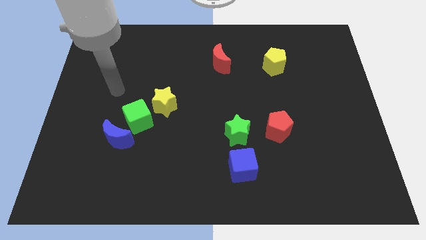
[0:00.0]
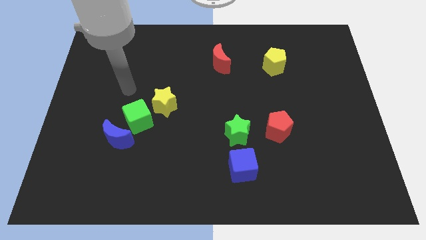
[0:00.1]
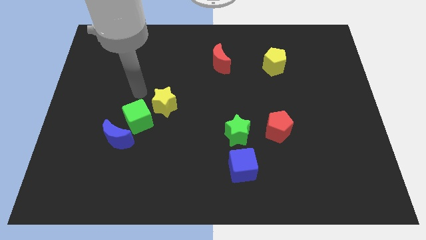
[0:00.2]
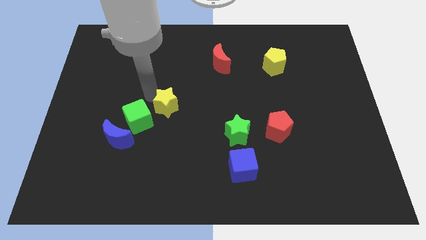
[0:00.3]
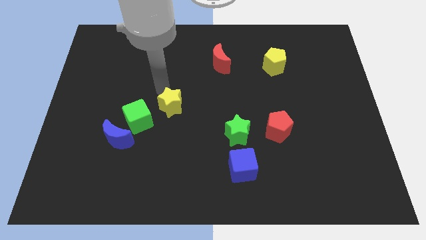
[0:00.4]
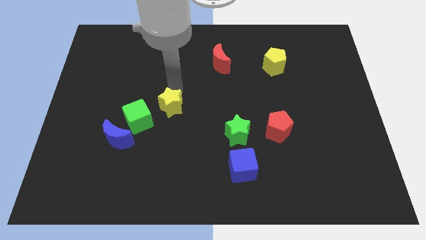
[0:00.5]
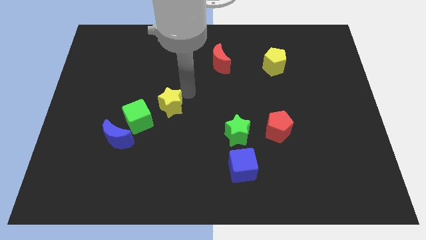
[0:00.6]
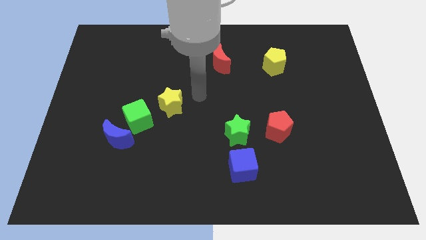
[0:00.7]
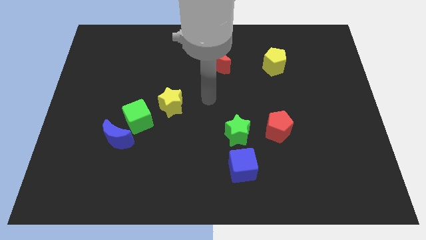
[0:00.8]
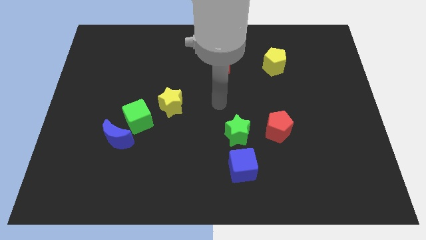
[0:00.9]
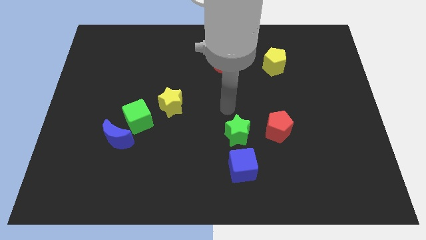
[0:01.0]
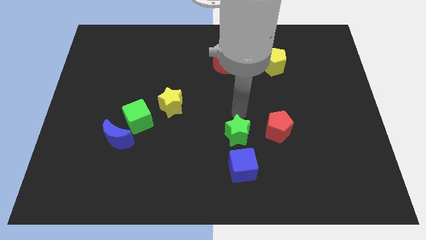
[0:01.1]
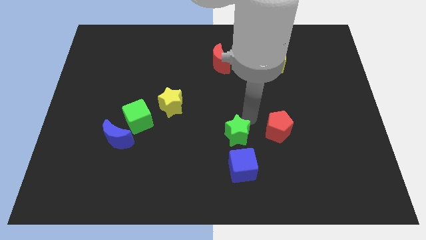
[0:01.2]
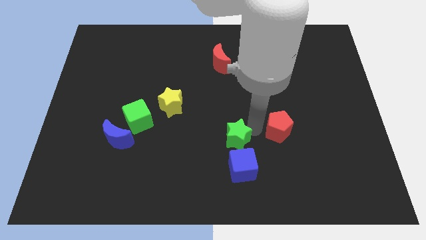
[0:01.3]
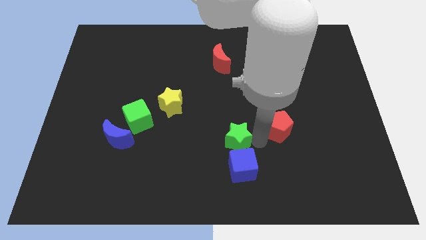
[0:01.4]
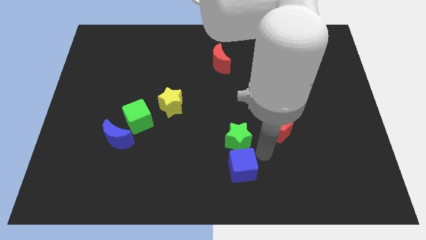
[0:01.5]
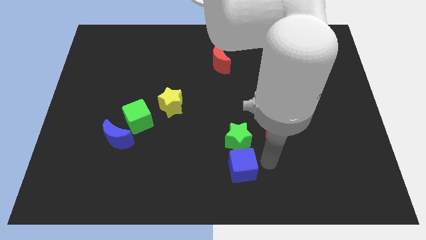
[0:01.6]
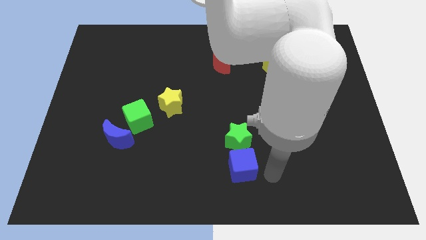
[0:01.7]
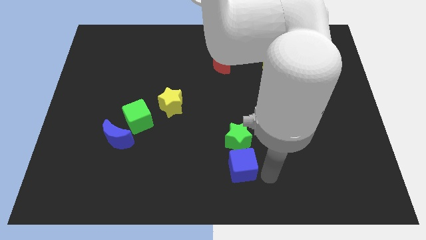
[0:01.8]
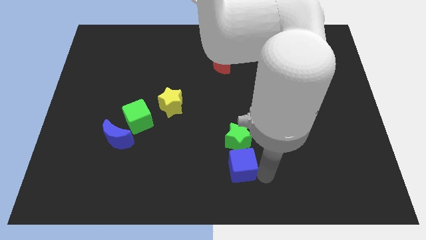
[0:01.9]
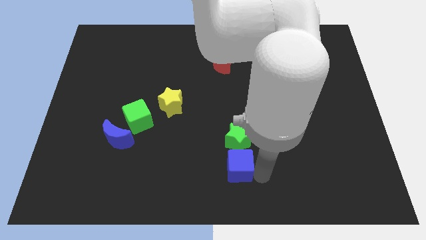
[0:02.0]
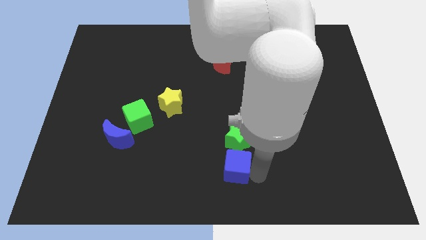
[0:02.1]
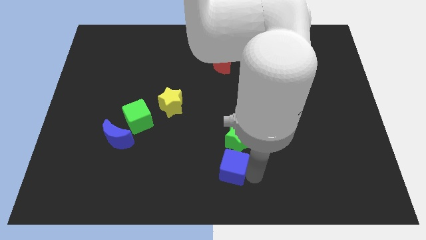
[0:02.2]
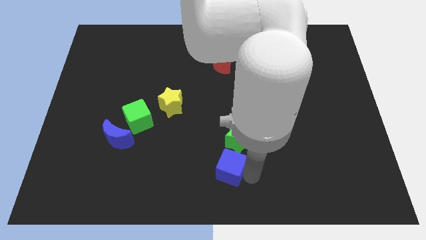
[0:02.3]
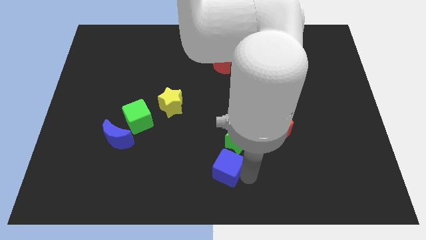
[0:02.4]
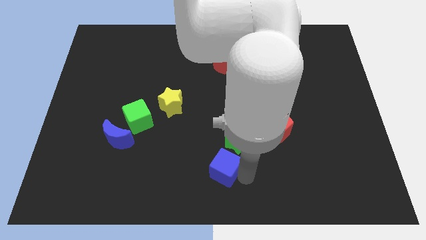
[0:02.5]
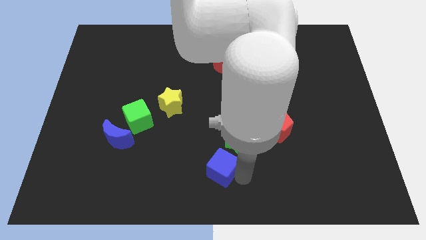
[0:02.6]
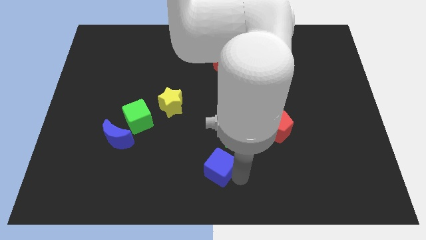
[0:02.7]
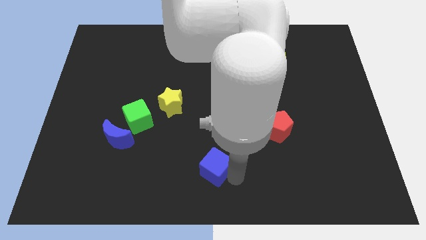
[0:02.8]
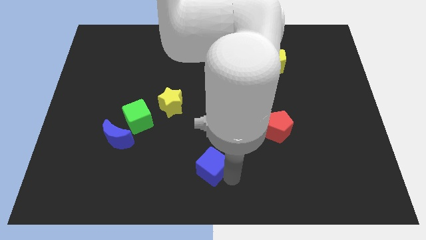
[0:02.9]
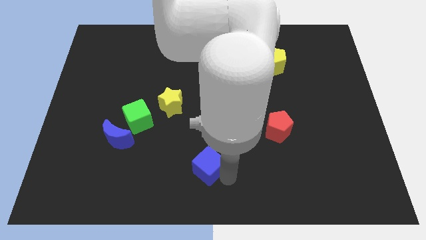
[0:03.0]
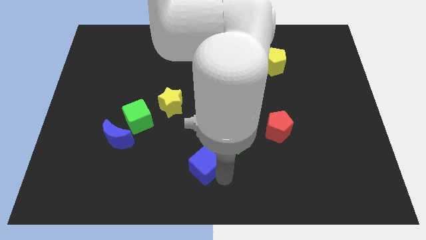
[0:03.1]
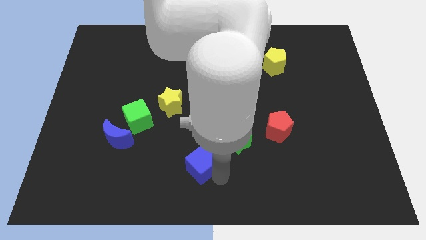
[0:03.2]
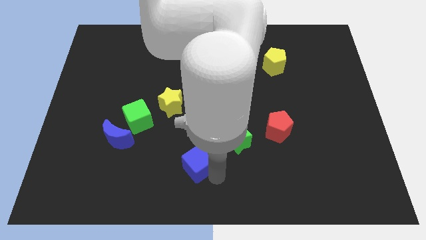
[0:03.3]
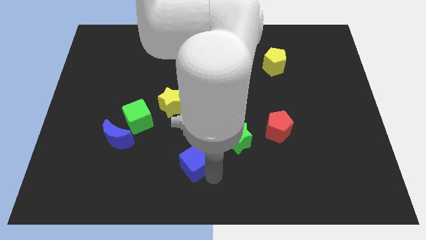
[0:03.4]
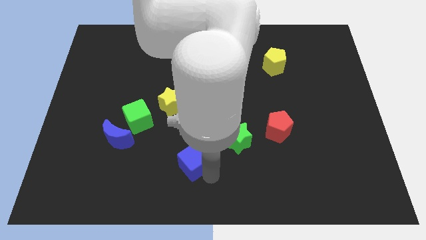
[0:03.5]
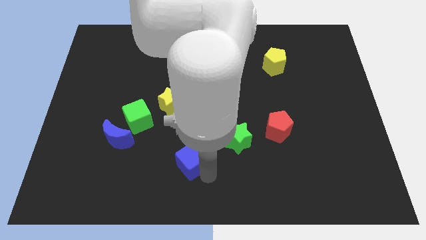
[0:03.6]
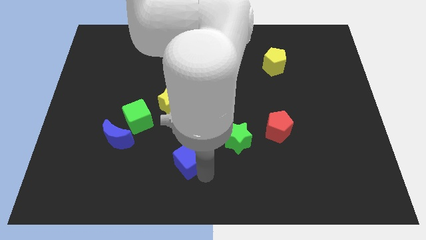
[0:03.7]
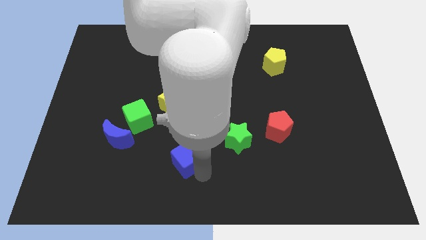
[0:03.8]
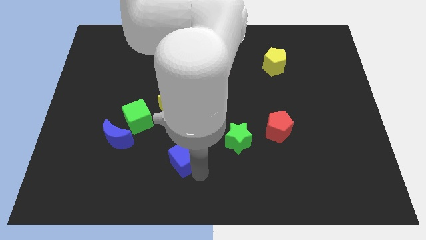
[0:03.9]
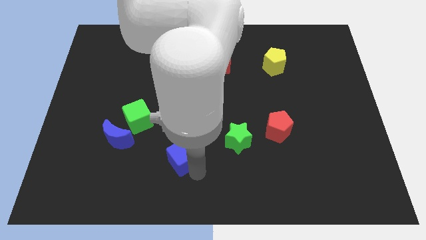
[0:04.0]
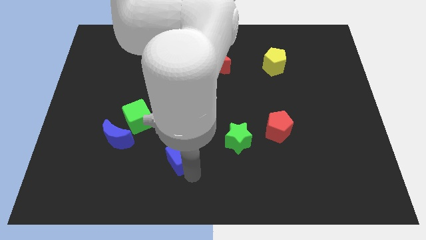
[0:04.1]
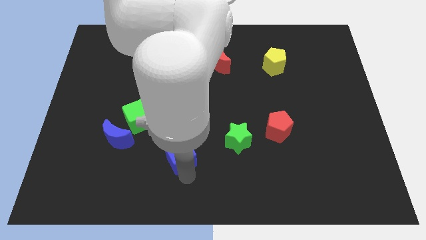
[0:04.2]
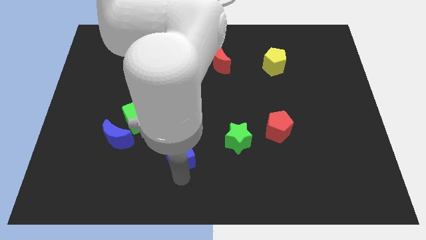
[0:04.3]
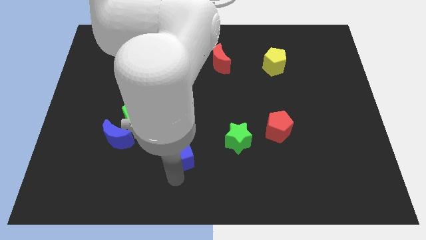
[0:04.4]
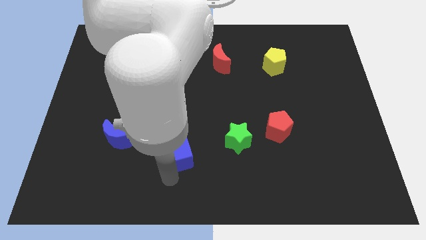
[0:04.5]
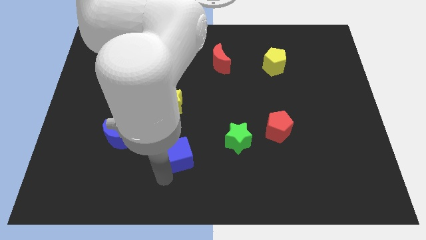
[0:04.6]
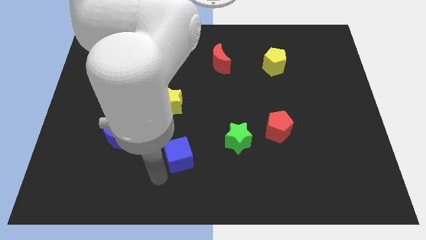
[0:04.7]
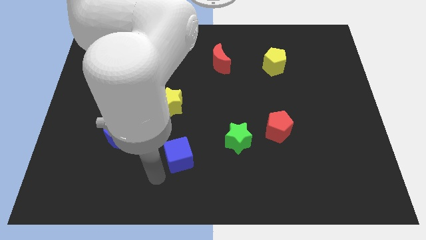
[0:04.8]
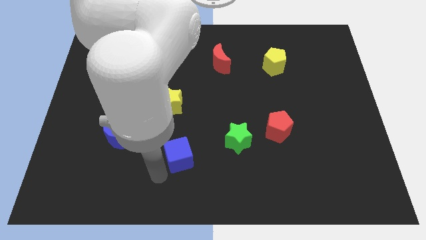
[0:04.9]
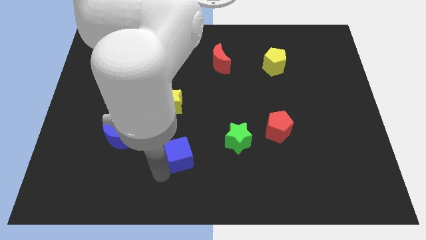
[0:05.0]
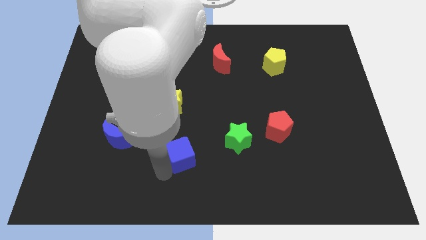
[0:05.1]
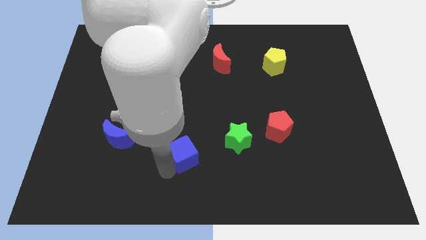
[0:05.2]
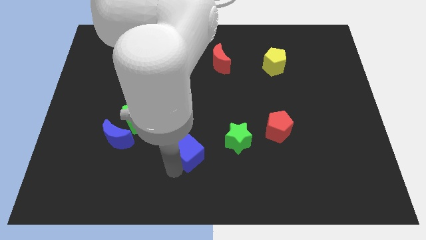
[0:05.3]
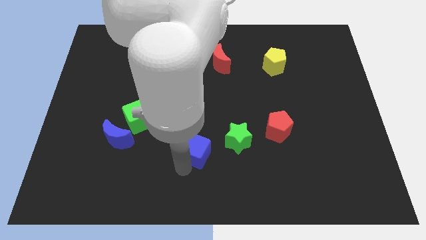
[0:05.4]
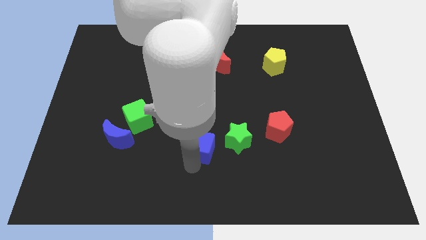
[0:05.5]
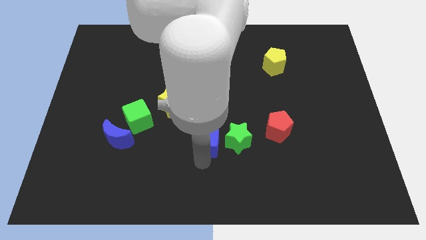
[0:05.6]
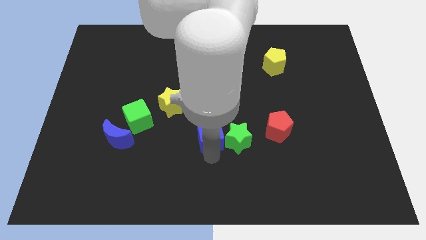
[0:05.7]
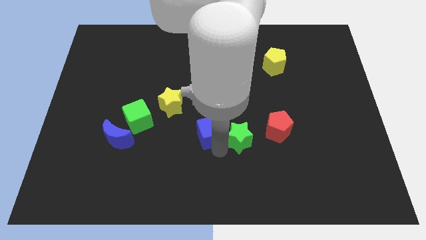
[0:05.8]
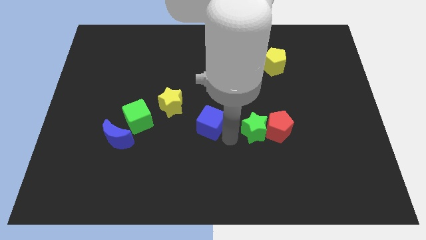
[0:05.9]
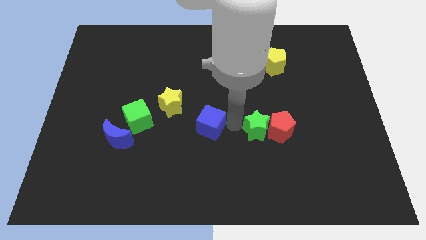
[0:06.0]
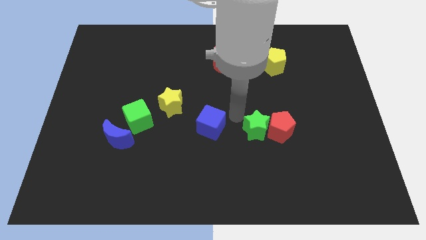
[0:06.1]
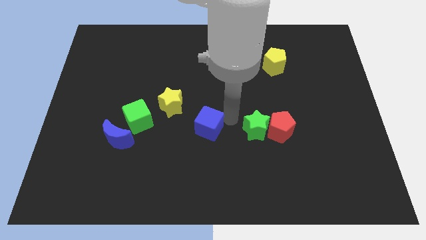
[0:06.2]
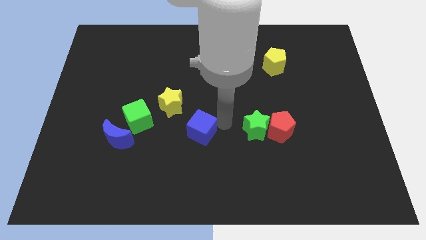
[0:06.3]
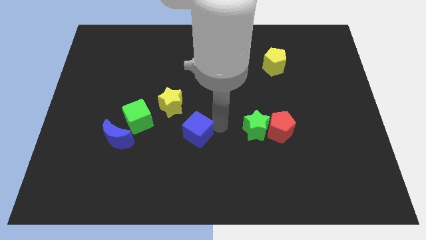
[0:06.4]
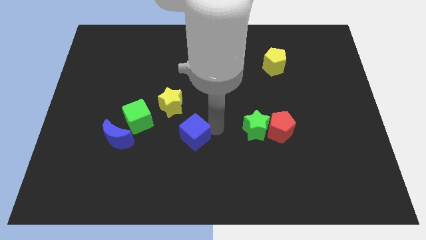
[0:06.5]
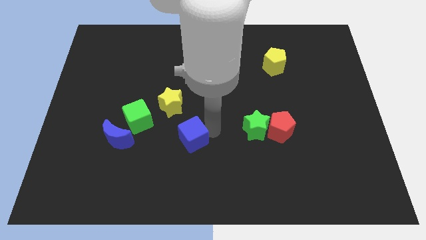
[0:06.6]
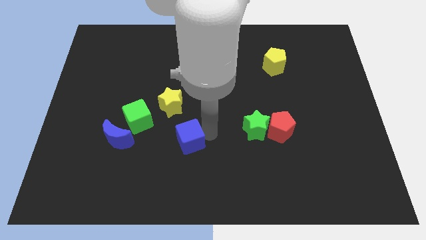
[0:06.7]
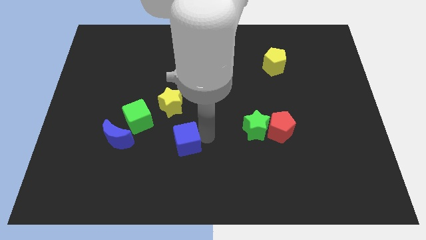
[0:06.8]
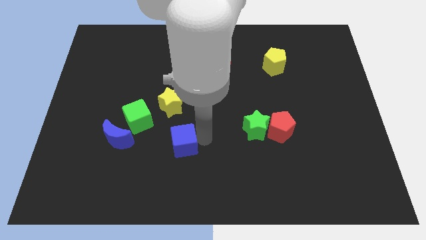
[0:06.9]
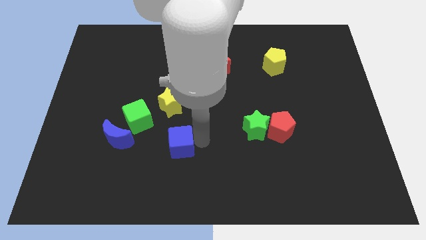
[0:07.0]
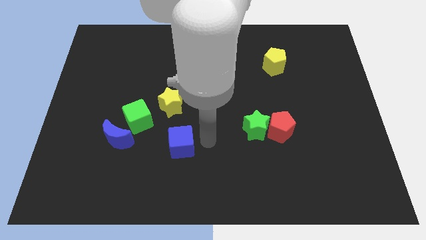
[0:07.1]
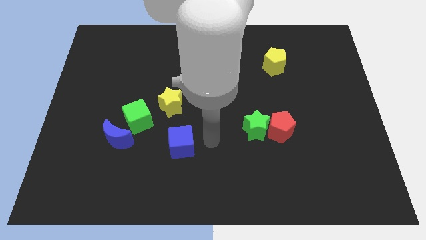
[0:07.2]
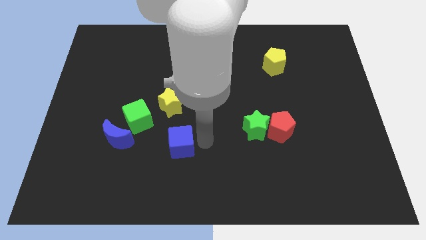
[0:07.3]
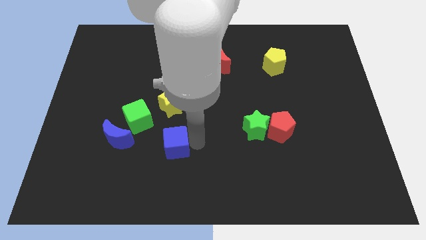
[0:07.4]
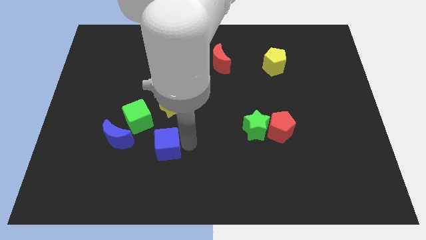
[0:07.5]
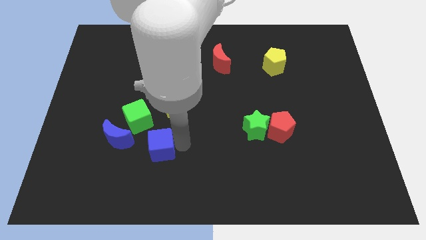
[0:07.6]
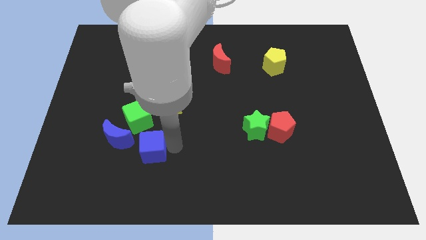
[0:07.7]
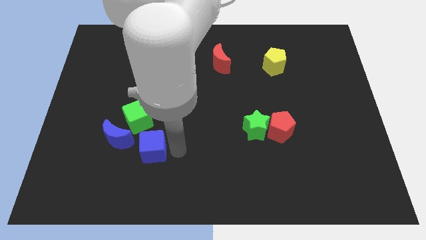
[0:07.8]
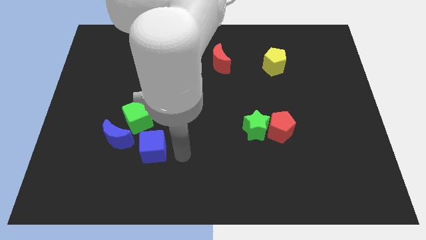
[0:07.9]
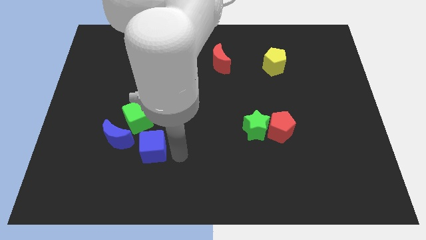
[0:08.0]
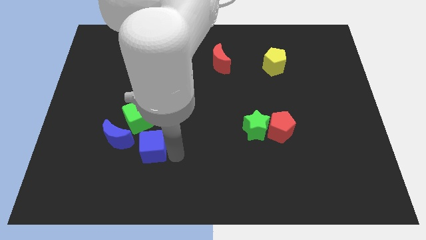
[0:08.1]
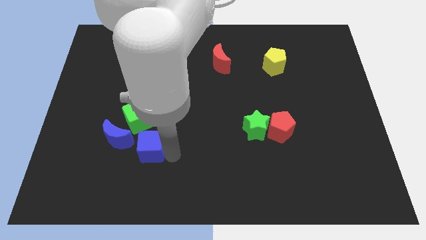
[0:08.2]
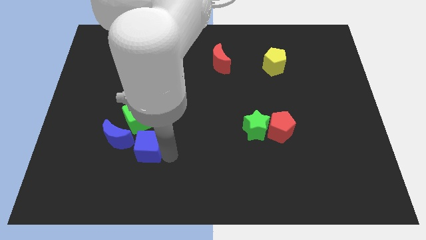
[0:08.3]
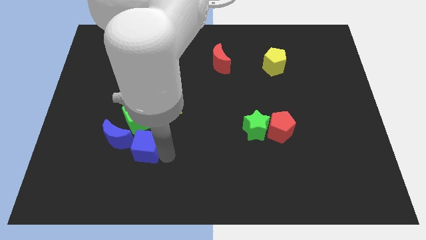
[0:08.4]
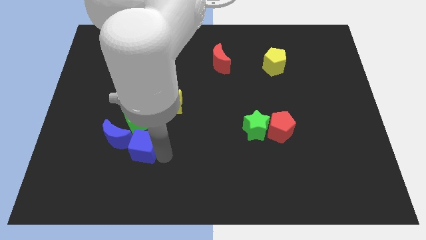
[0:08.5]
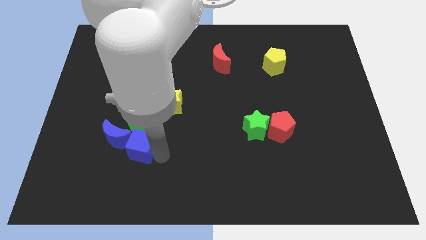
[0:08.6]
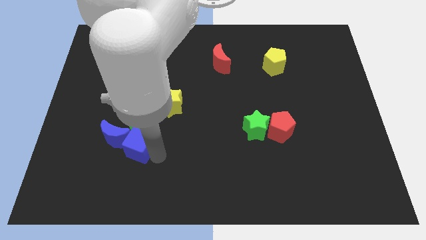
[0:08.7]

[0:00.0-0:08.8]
put the blue cube towards the blue moon
